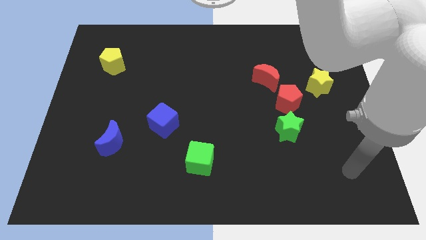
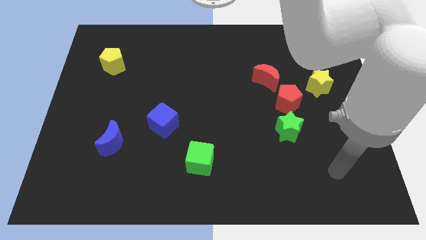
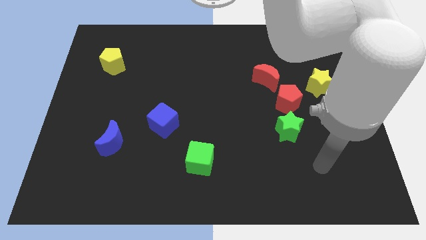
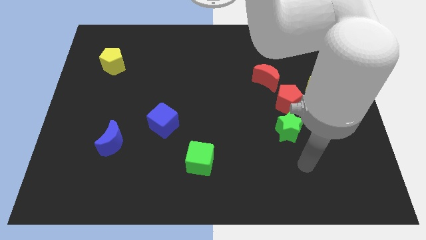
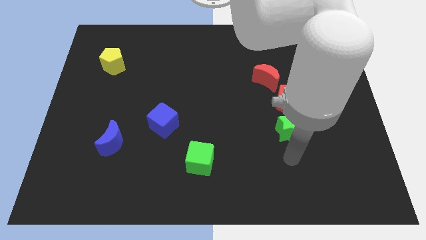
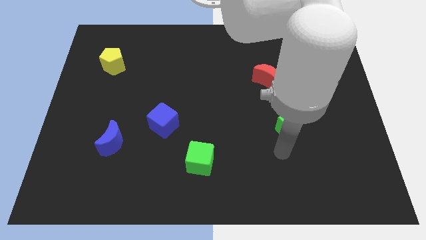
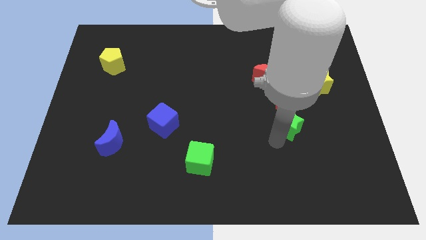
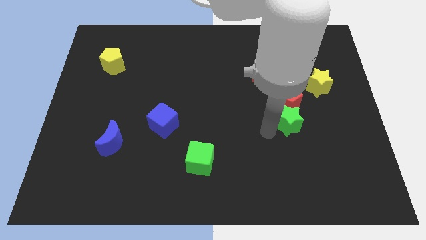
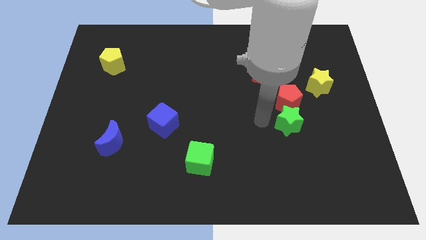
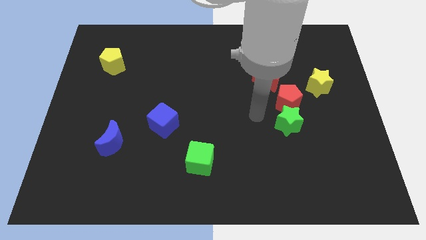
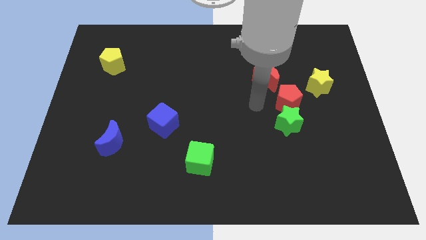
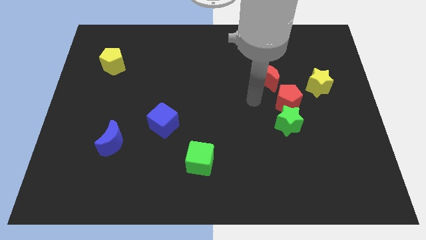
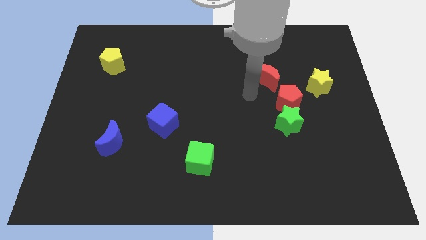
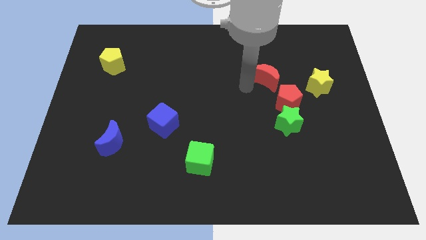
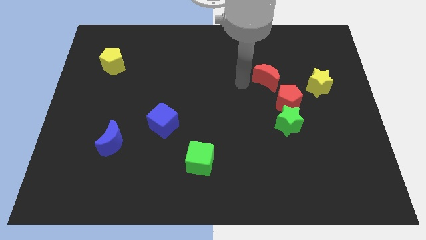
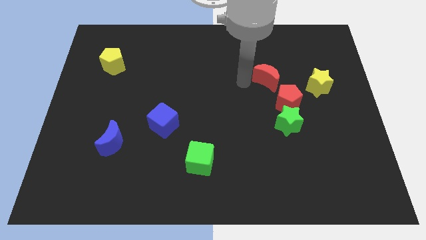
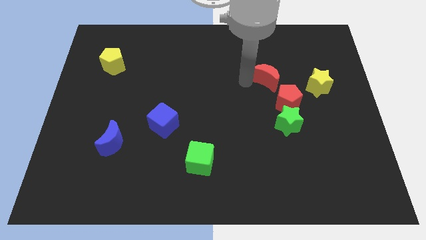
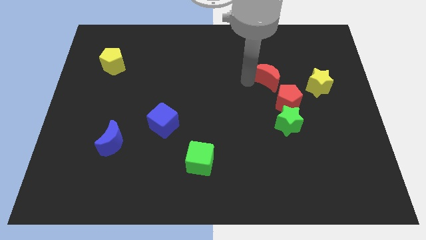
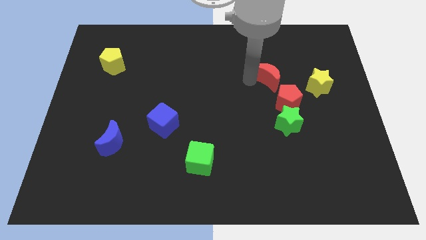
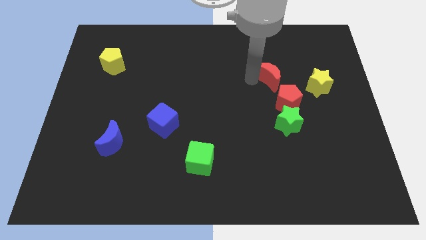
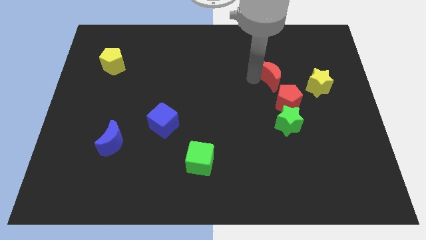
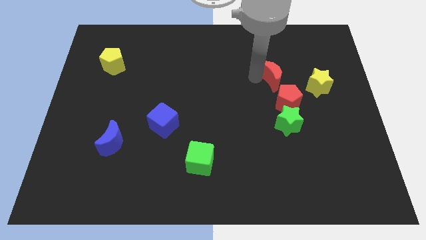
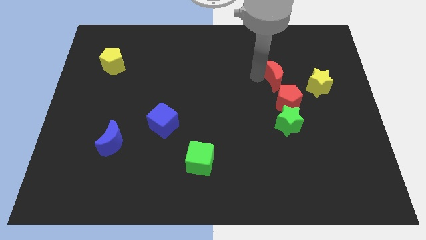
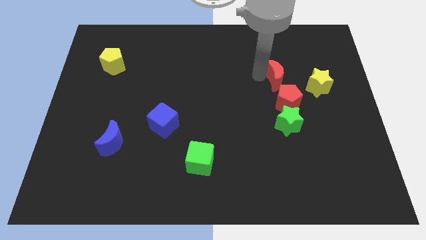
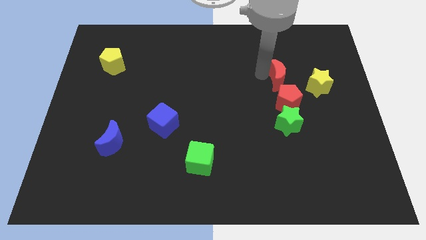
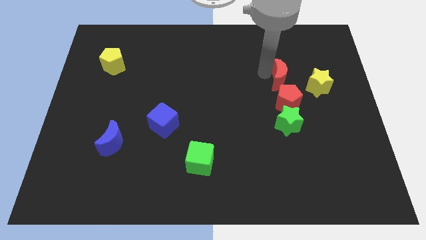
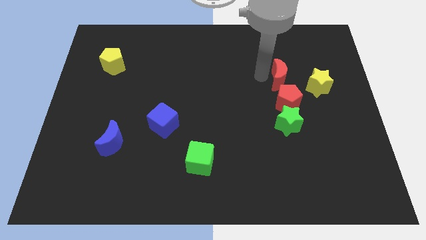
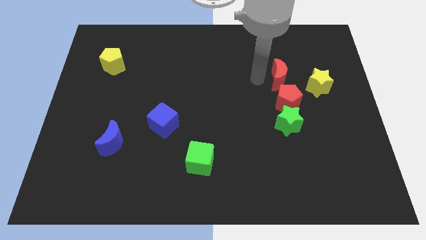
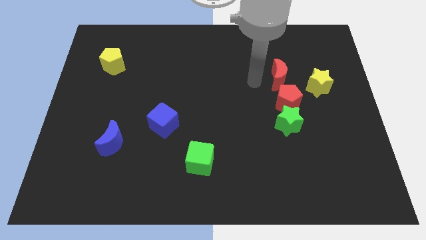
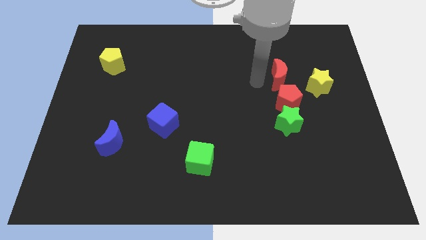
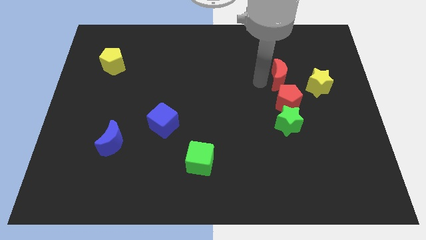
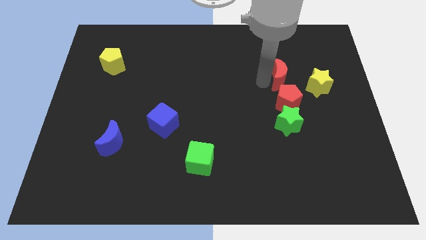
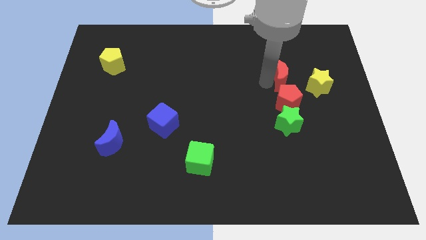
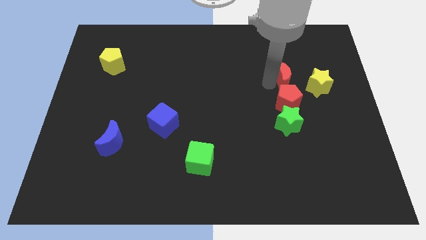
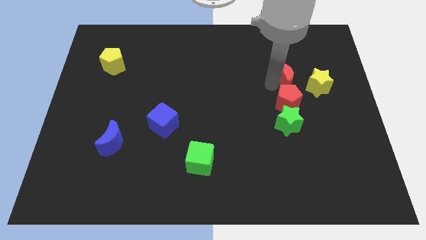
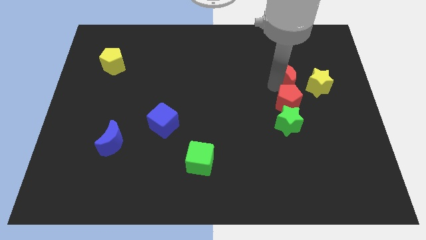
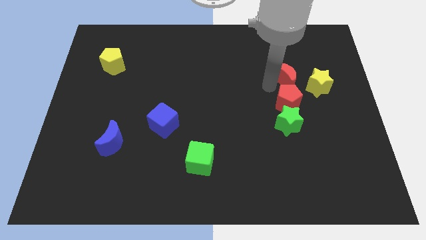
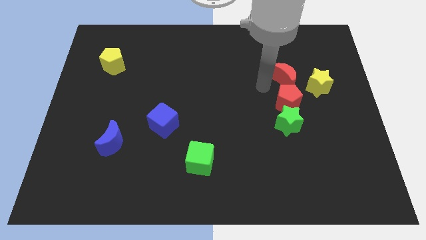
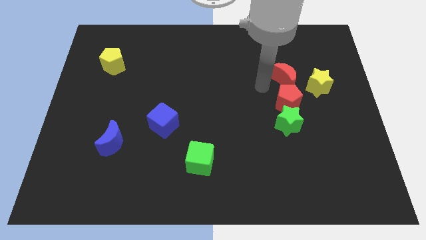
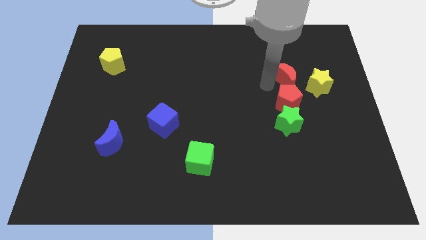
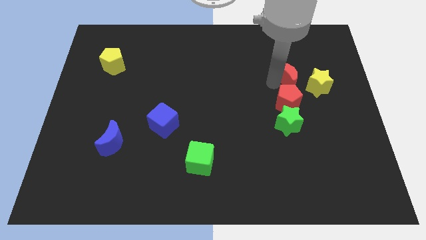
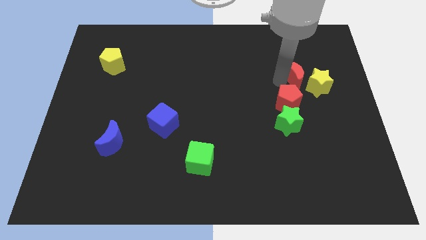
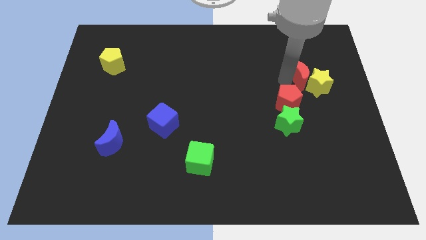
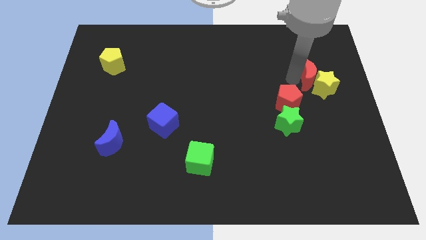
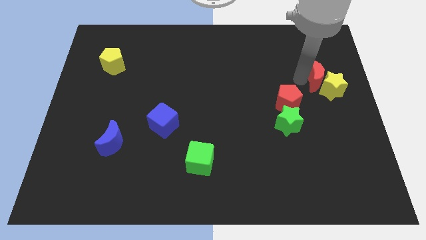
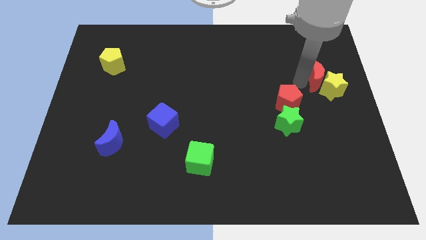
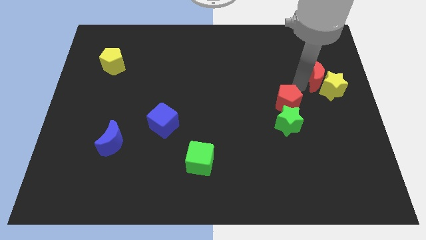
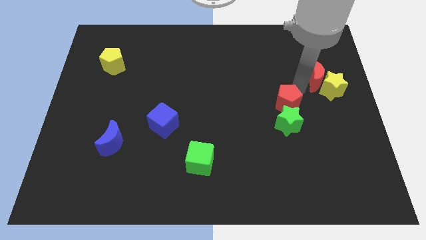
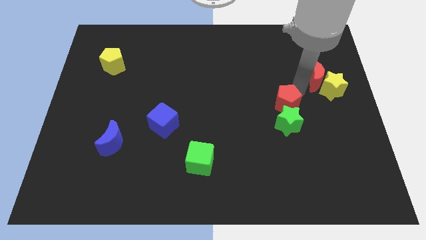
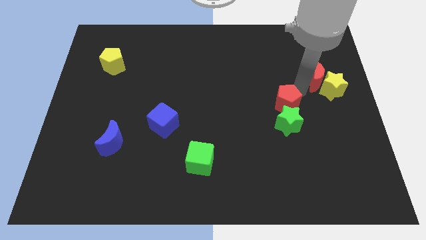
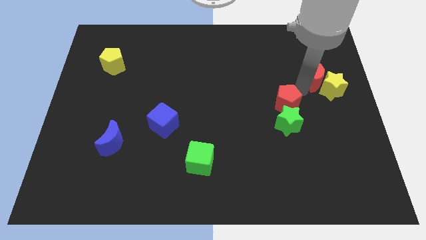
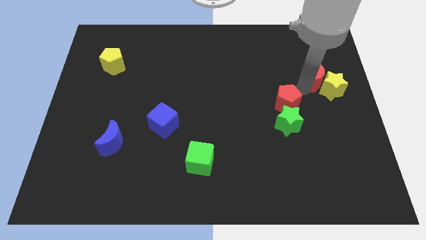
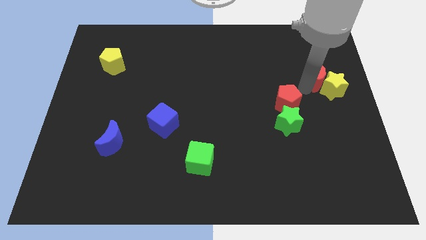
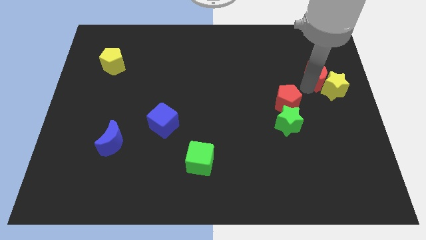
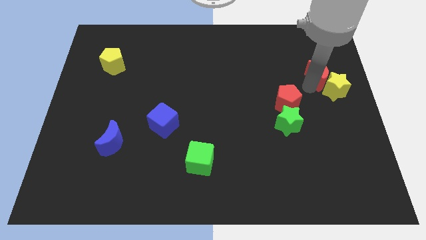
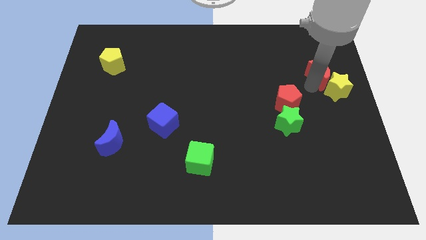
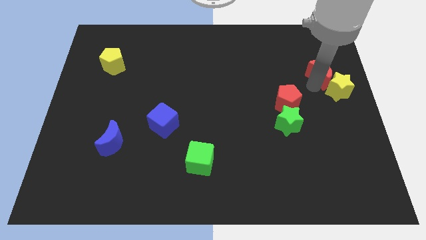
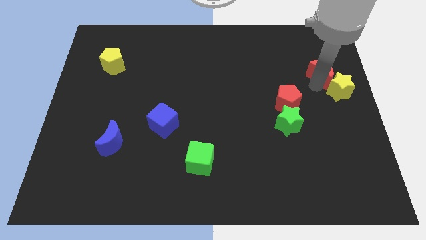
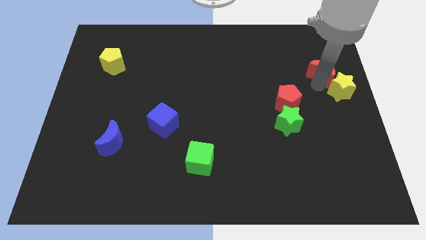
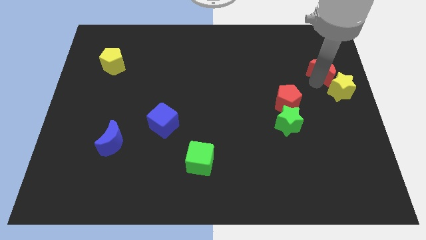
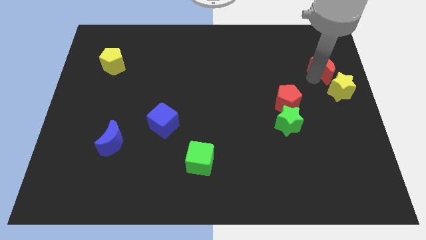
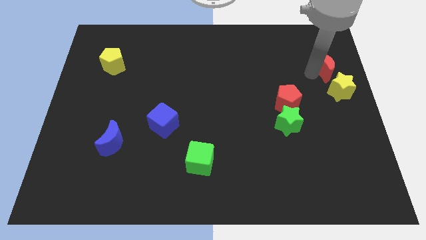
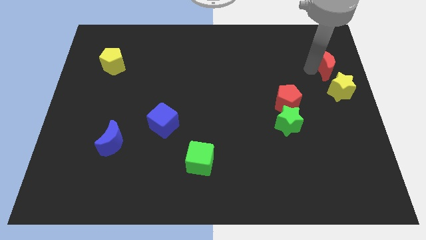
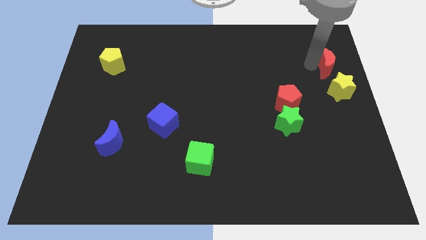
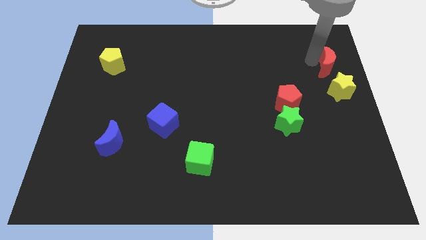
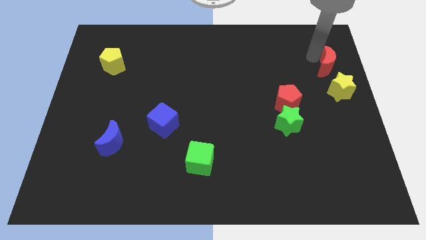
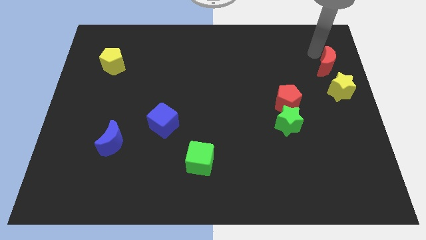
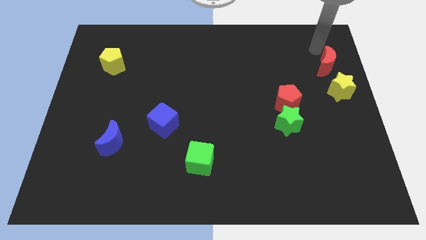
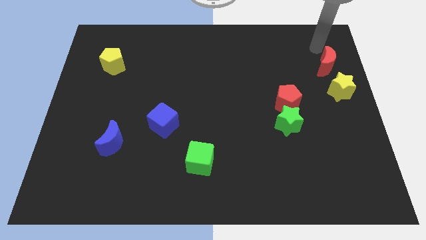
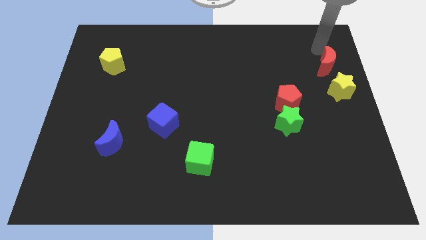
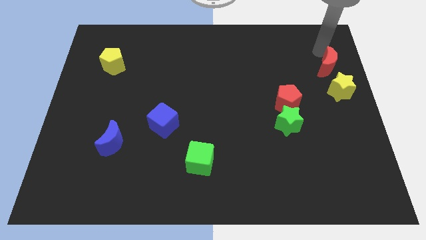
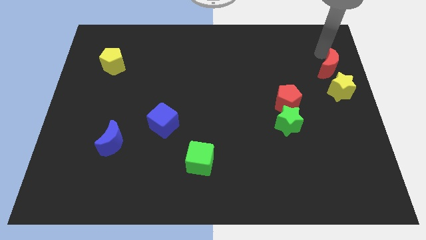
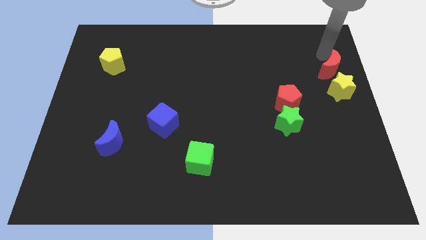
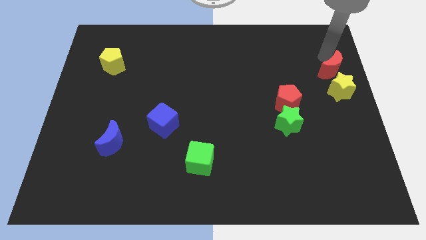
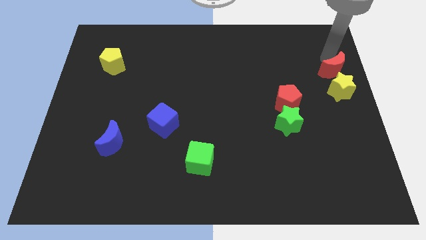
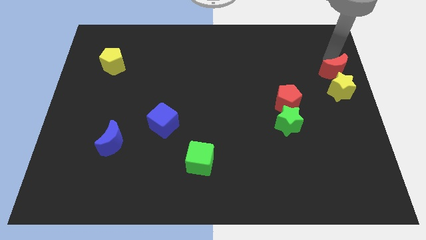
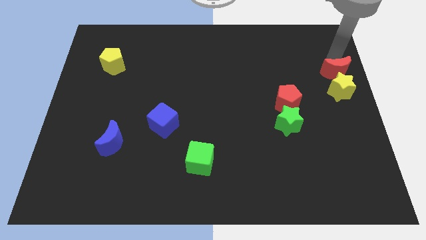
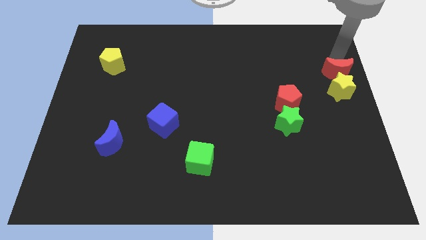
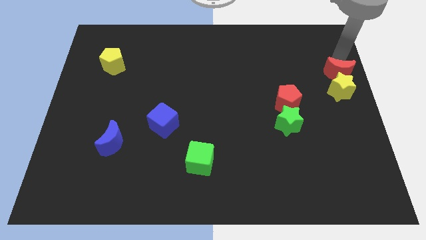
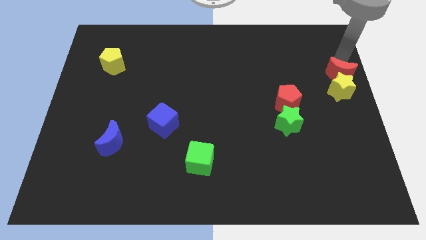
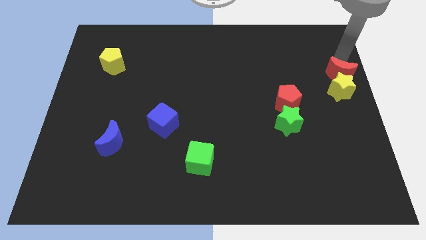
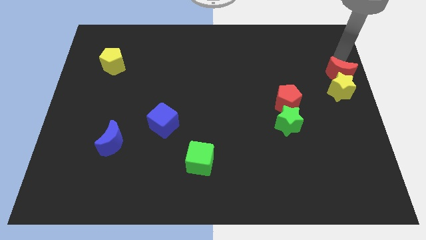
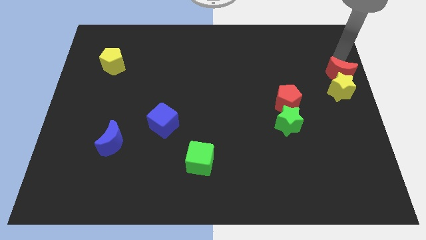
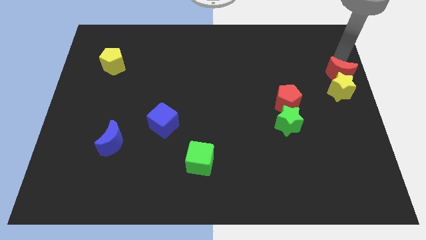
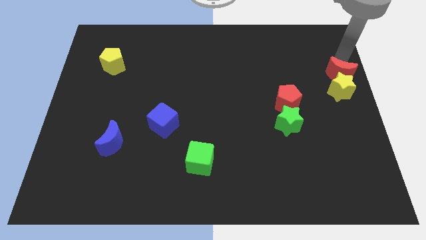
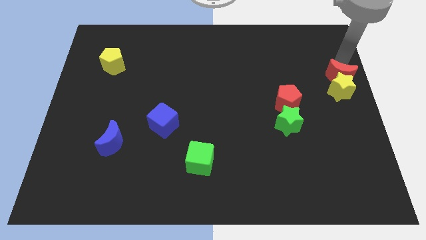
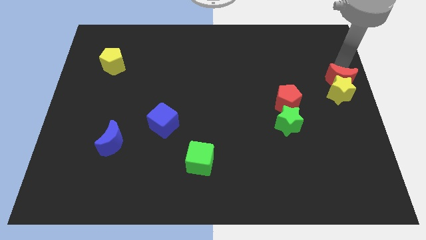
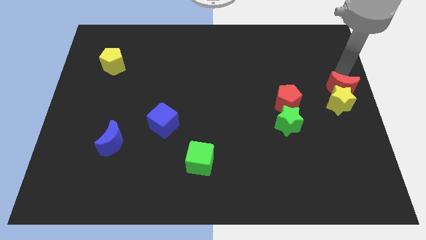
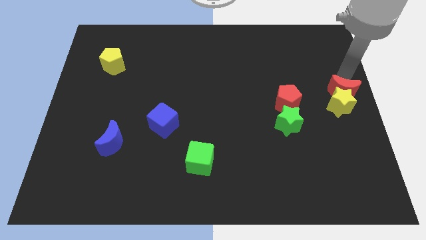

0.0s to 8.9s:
push the red moon to the right of the red pentagon
